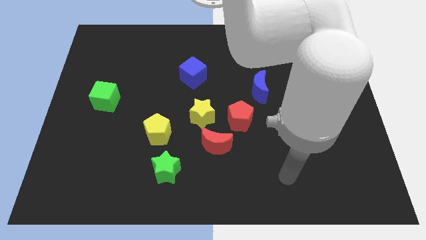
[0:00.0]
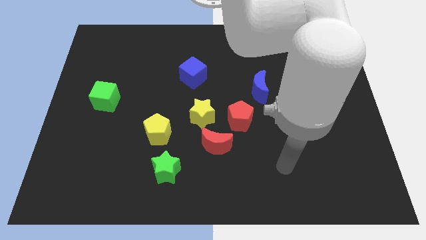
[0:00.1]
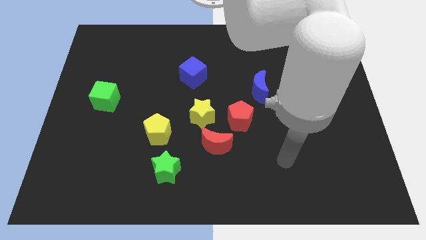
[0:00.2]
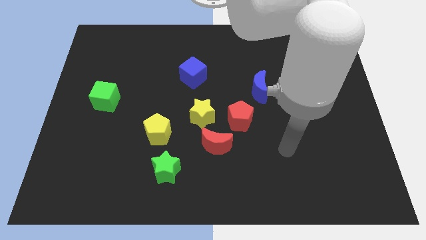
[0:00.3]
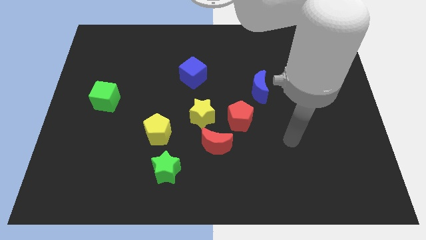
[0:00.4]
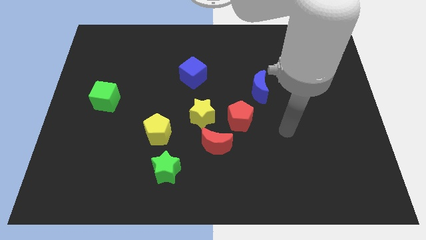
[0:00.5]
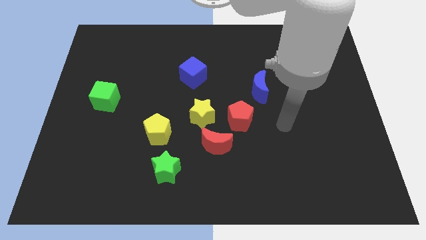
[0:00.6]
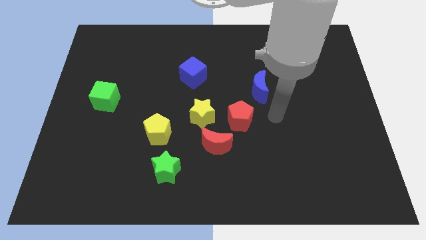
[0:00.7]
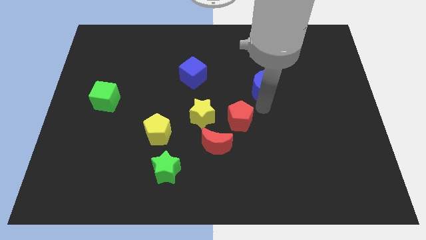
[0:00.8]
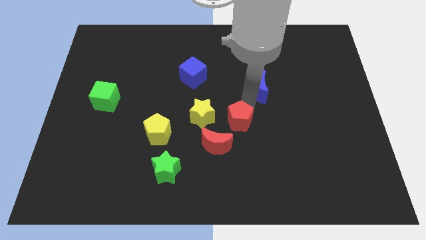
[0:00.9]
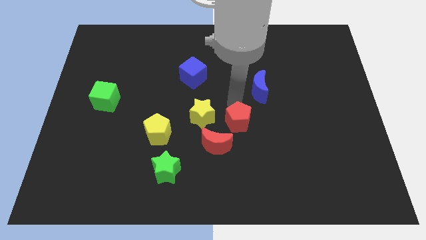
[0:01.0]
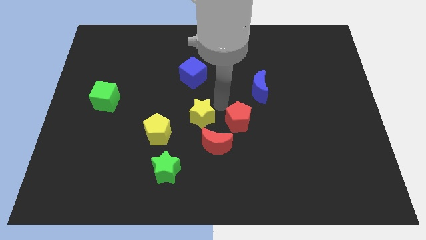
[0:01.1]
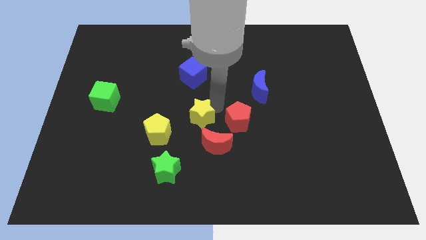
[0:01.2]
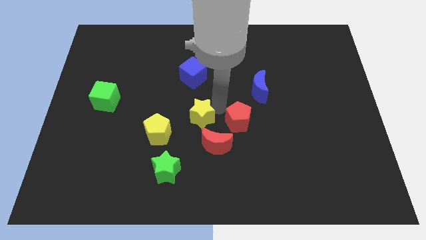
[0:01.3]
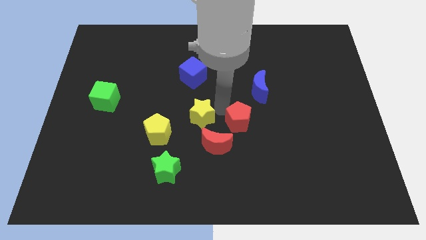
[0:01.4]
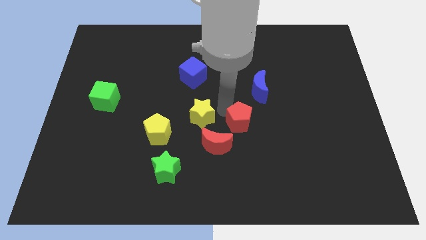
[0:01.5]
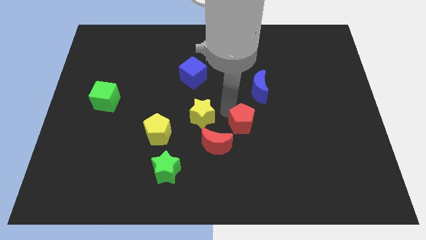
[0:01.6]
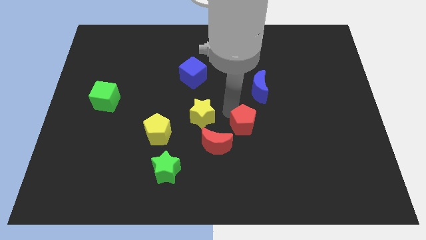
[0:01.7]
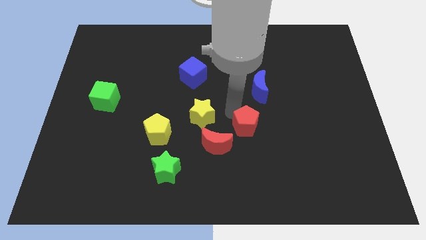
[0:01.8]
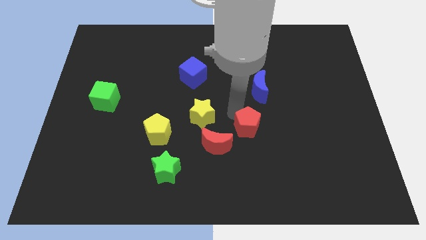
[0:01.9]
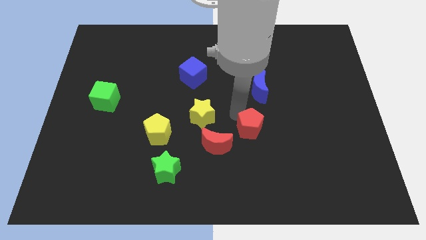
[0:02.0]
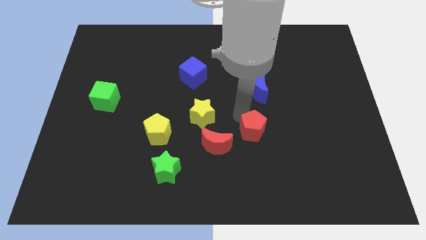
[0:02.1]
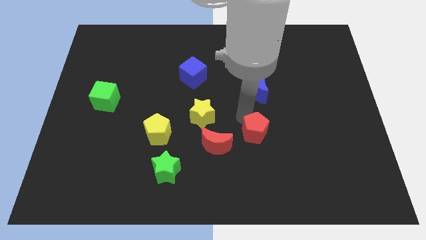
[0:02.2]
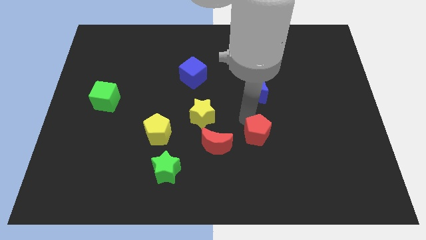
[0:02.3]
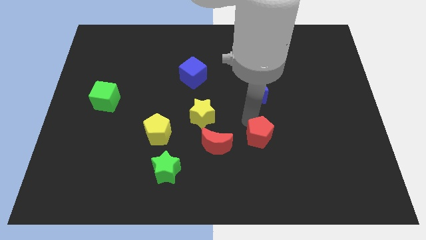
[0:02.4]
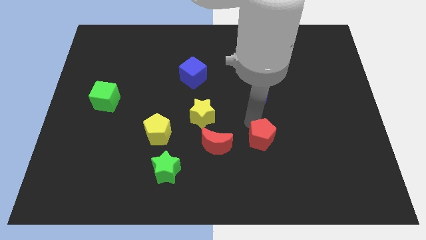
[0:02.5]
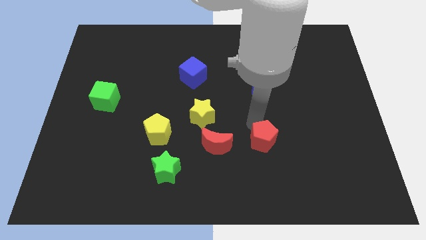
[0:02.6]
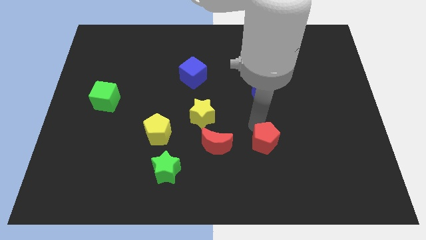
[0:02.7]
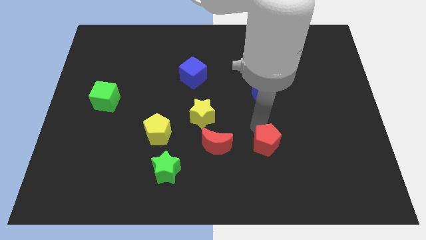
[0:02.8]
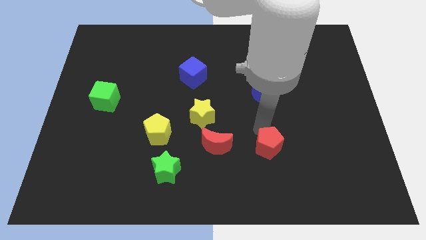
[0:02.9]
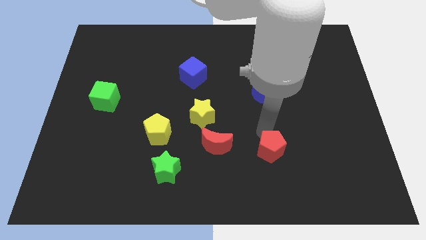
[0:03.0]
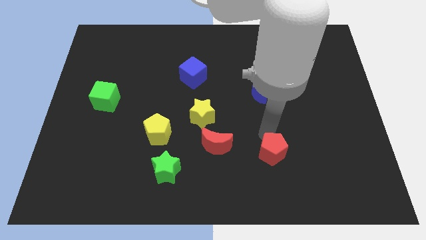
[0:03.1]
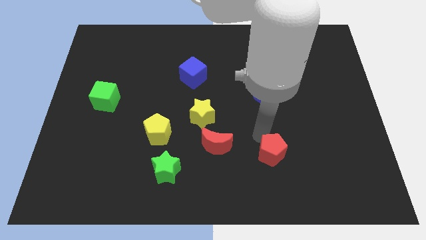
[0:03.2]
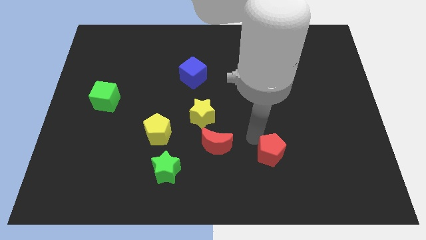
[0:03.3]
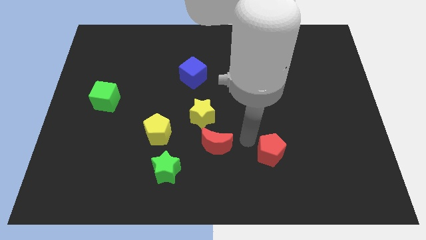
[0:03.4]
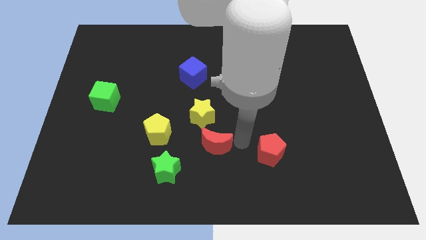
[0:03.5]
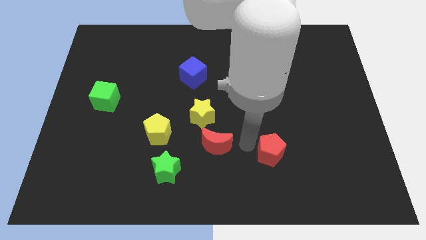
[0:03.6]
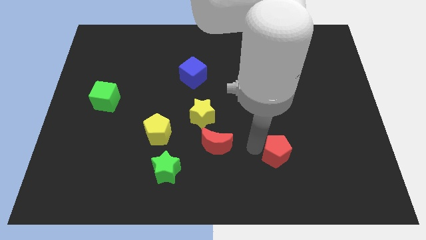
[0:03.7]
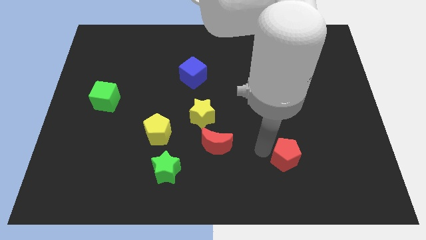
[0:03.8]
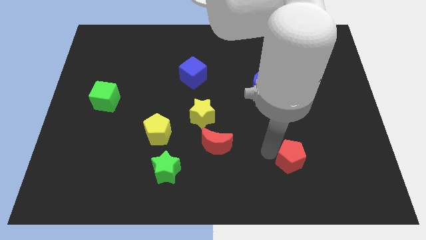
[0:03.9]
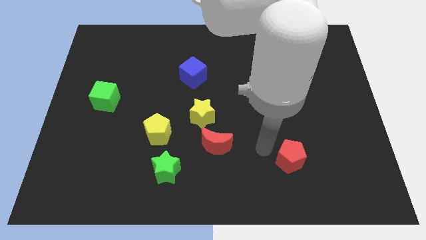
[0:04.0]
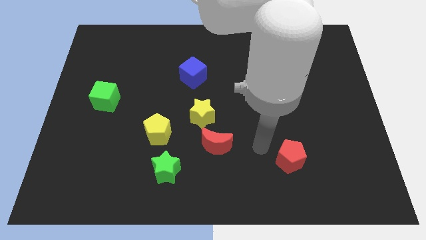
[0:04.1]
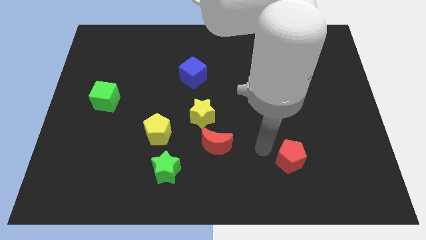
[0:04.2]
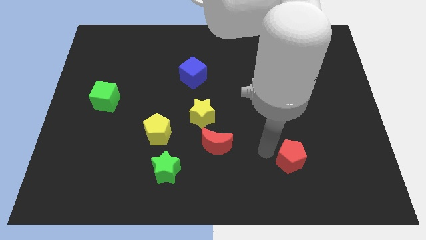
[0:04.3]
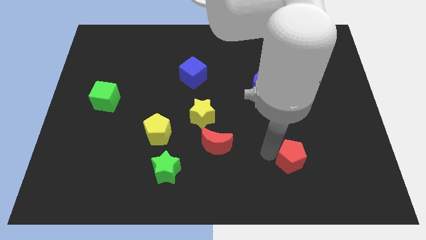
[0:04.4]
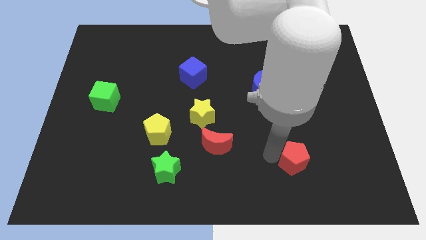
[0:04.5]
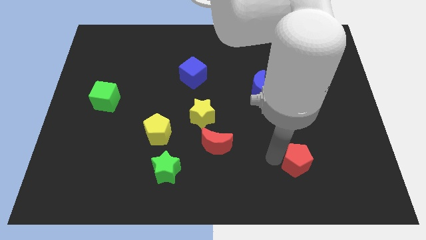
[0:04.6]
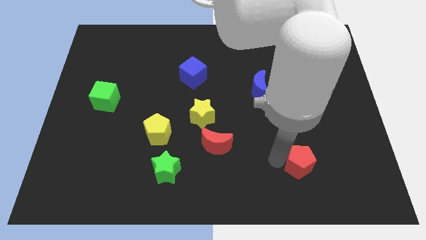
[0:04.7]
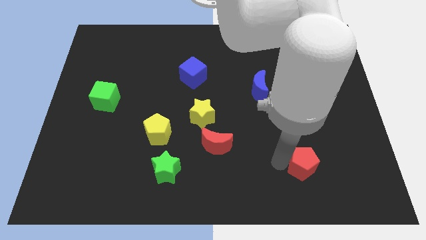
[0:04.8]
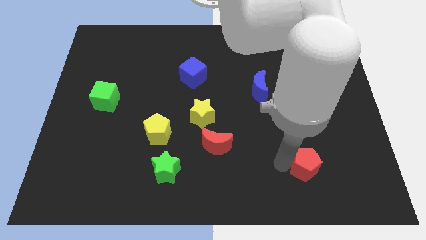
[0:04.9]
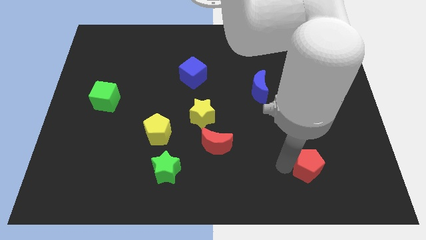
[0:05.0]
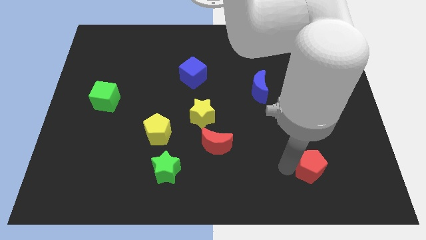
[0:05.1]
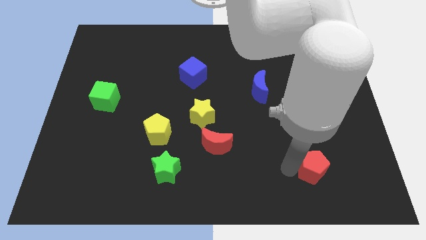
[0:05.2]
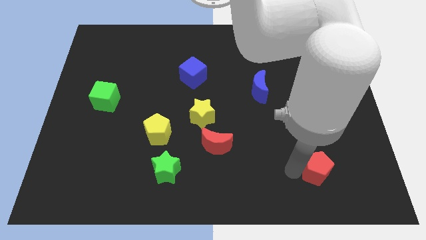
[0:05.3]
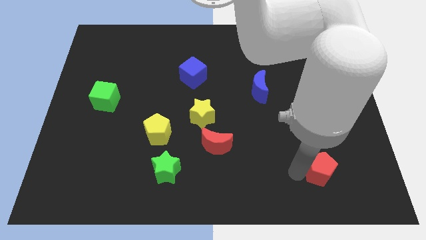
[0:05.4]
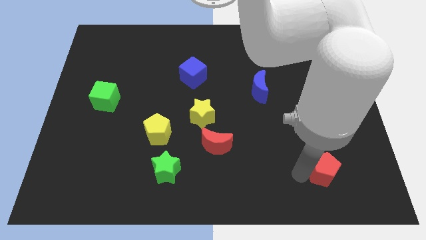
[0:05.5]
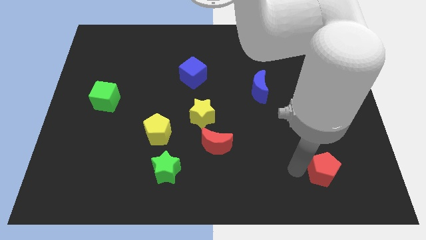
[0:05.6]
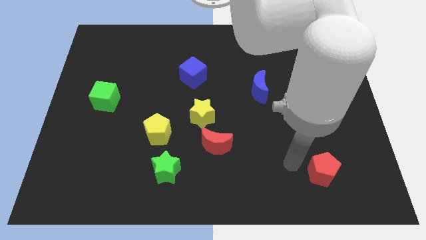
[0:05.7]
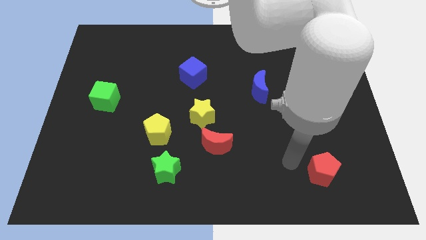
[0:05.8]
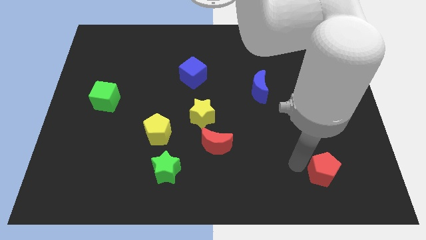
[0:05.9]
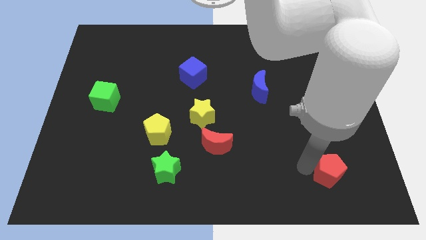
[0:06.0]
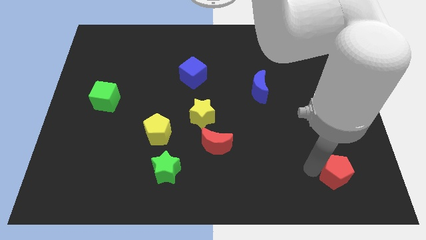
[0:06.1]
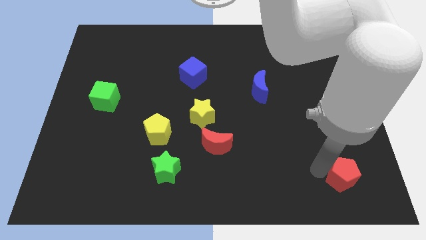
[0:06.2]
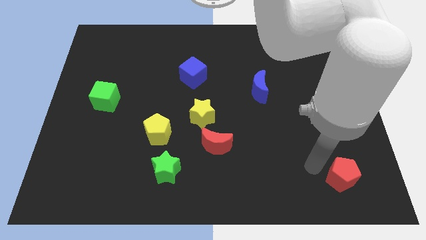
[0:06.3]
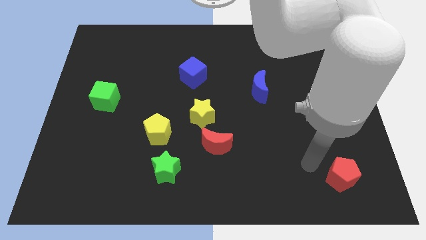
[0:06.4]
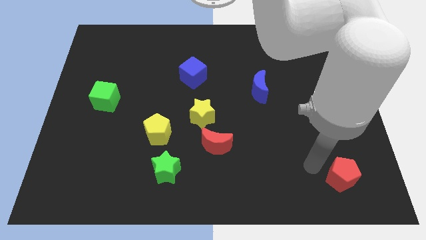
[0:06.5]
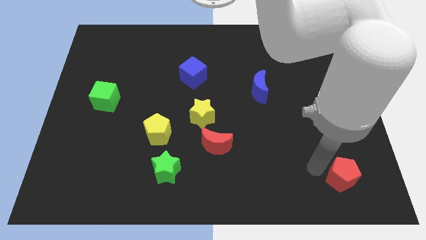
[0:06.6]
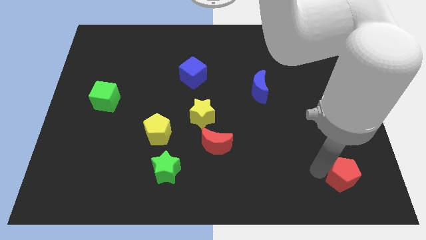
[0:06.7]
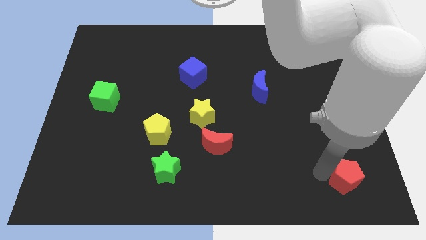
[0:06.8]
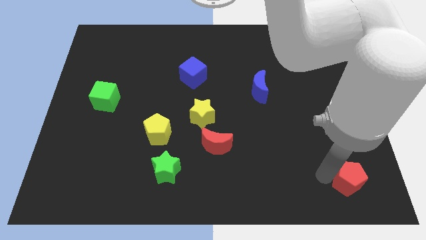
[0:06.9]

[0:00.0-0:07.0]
move the red pentagon to the bottom right of the board
